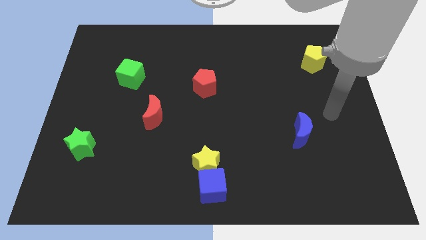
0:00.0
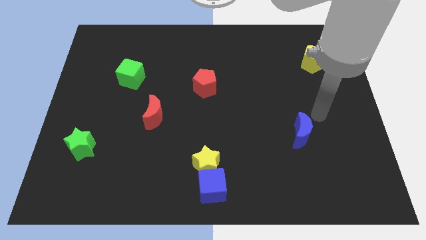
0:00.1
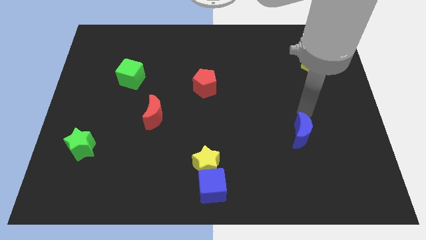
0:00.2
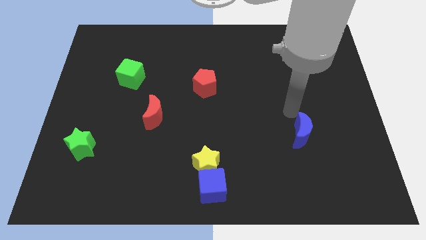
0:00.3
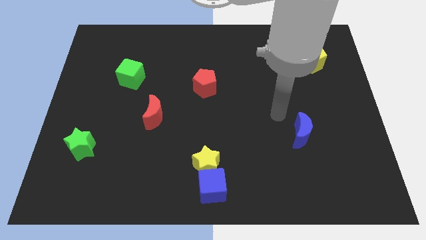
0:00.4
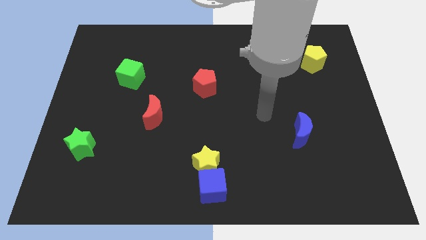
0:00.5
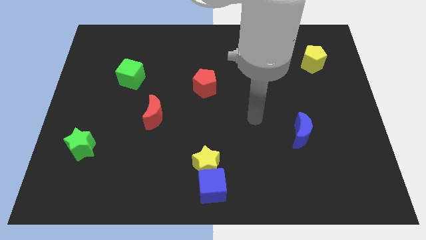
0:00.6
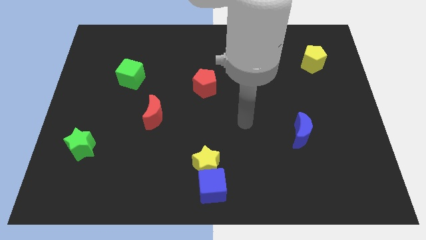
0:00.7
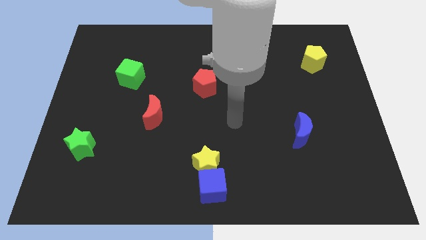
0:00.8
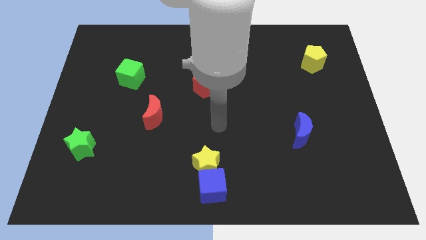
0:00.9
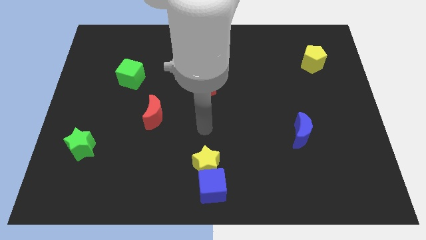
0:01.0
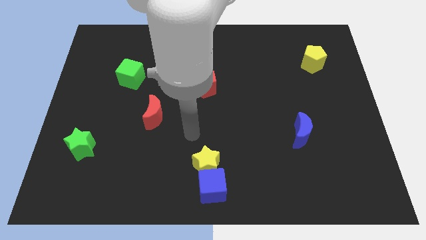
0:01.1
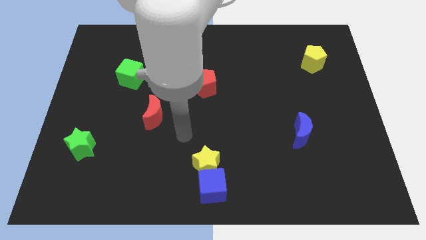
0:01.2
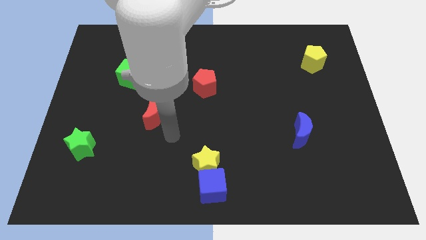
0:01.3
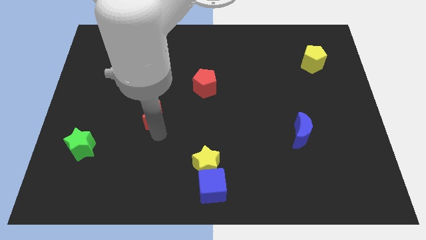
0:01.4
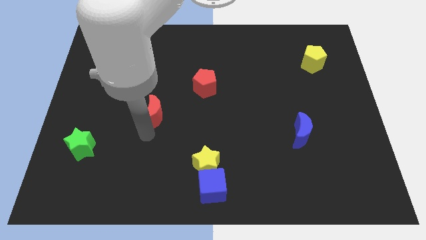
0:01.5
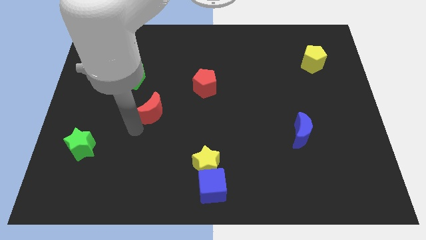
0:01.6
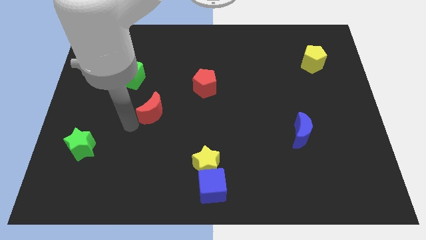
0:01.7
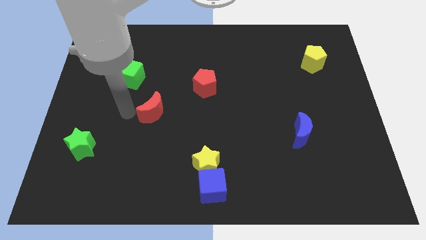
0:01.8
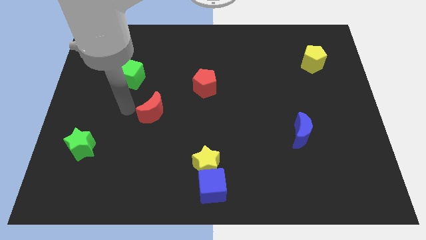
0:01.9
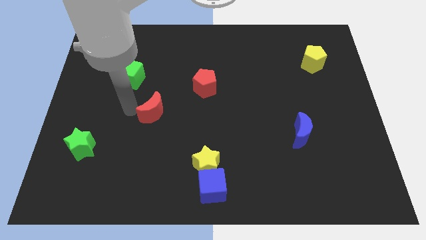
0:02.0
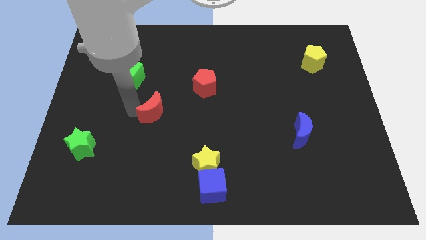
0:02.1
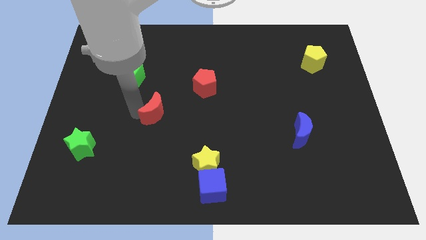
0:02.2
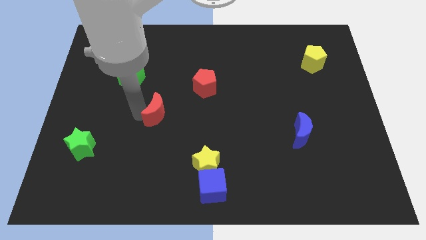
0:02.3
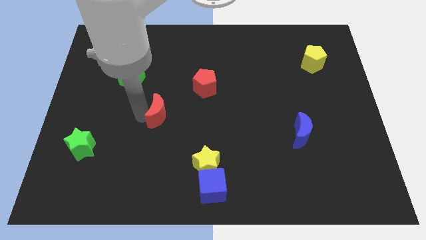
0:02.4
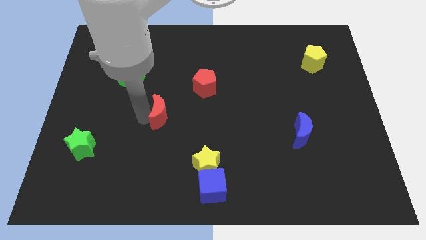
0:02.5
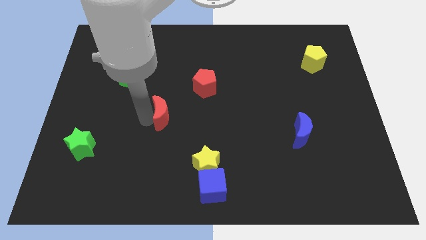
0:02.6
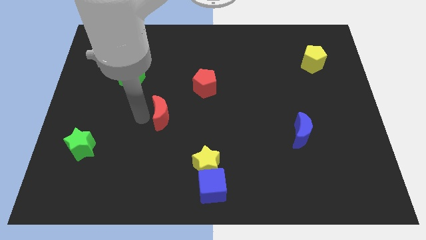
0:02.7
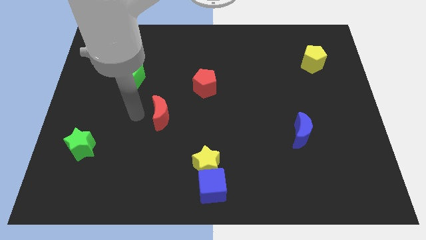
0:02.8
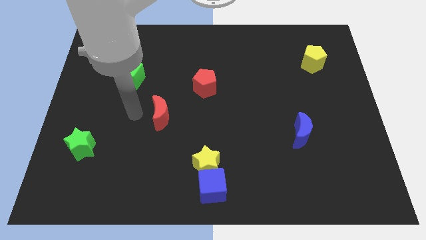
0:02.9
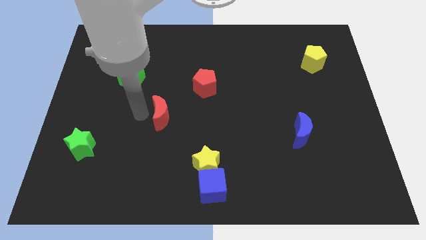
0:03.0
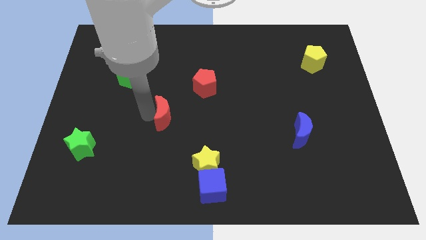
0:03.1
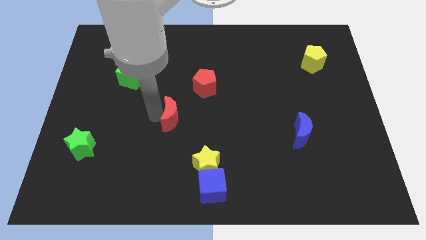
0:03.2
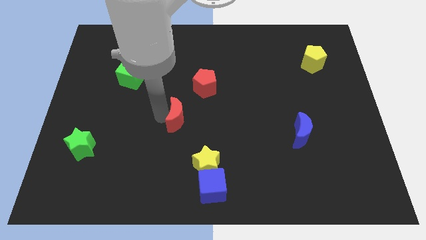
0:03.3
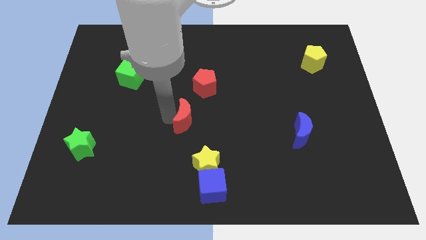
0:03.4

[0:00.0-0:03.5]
slide the red moon a bit to the right

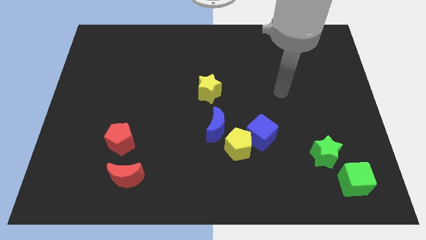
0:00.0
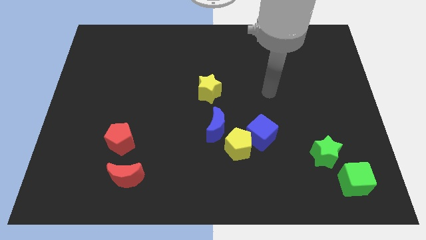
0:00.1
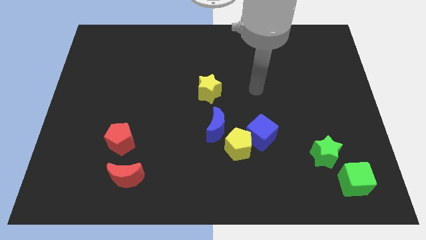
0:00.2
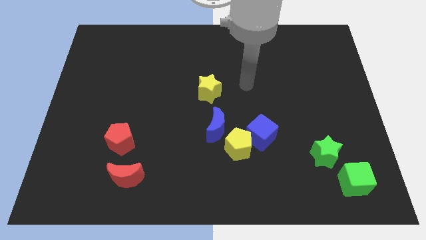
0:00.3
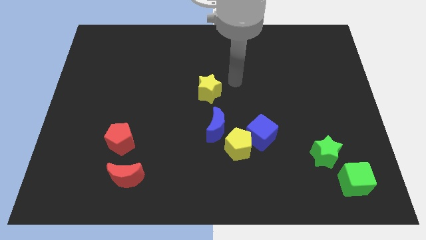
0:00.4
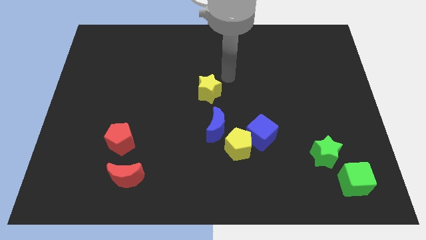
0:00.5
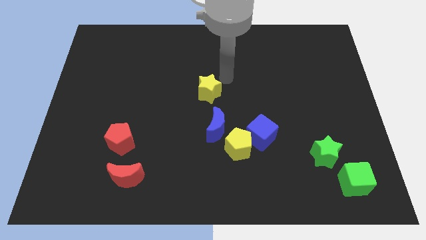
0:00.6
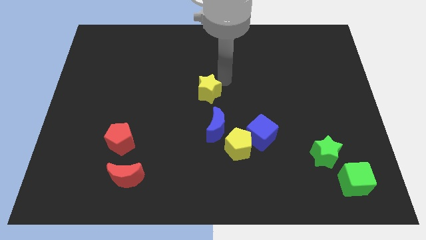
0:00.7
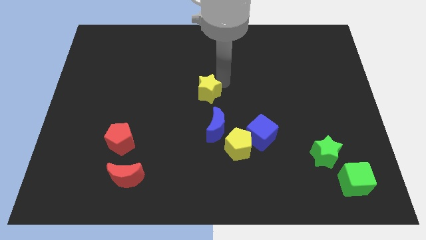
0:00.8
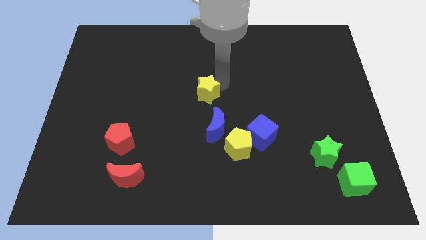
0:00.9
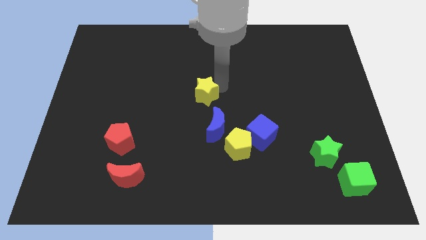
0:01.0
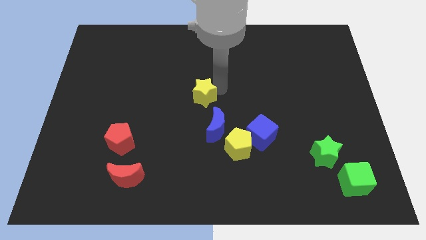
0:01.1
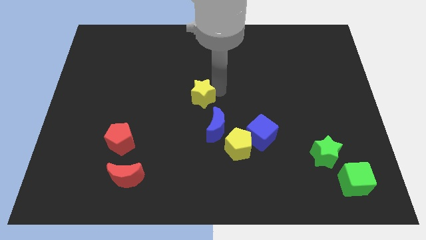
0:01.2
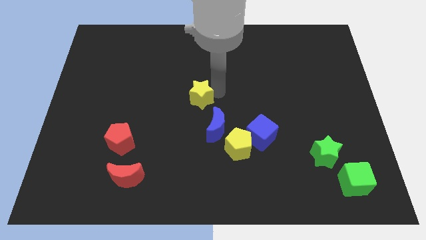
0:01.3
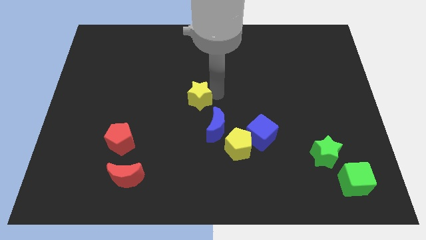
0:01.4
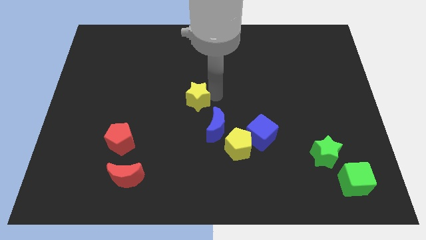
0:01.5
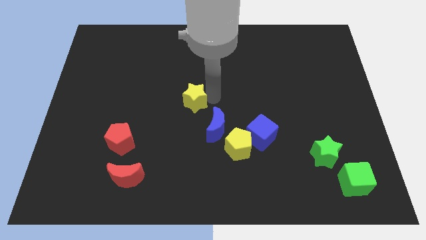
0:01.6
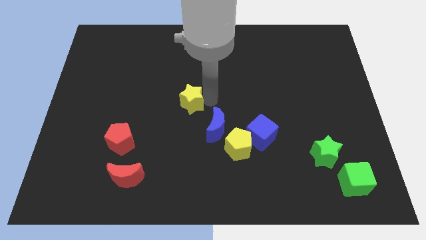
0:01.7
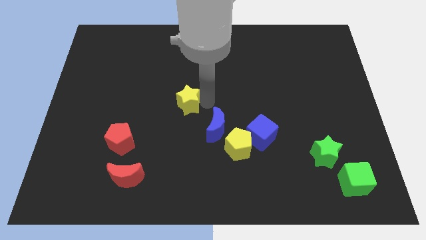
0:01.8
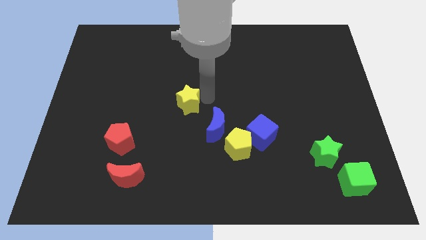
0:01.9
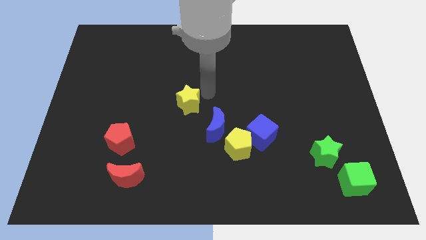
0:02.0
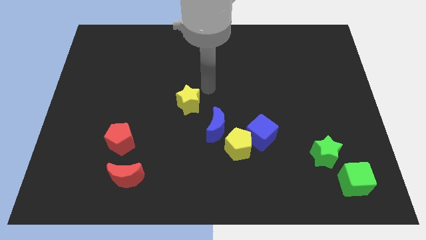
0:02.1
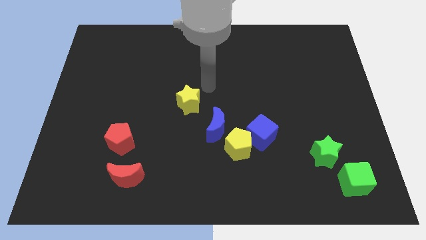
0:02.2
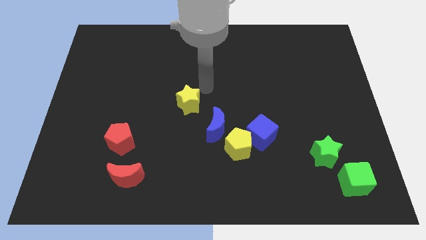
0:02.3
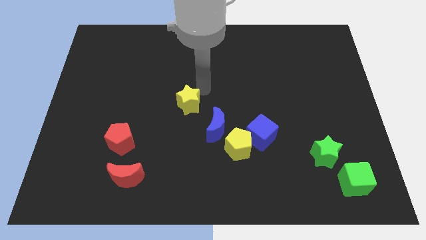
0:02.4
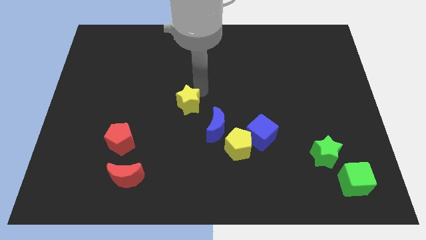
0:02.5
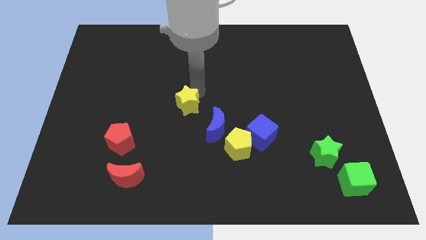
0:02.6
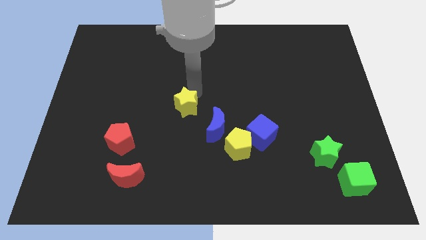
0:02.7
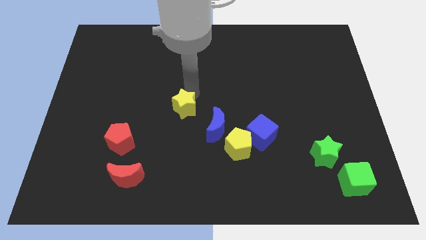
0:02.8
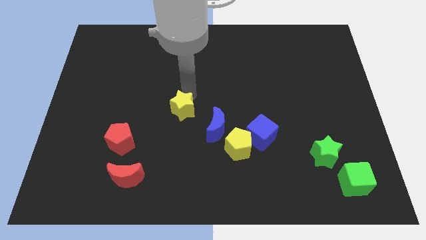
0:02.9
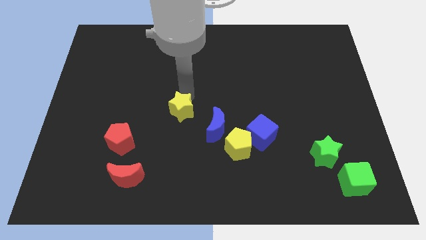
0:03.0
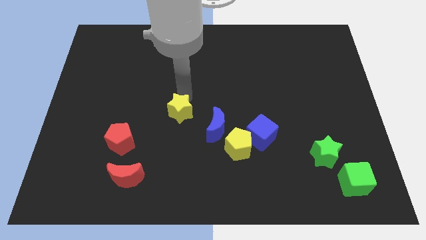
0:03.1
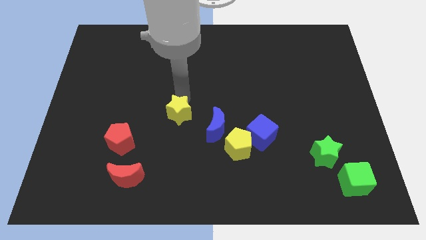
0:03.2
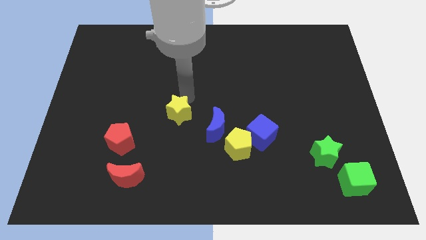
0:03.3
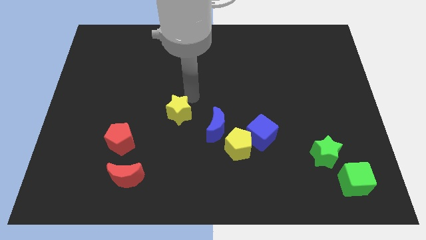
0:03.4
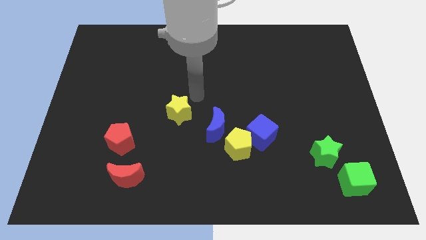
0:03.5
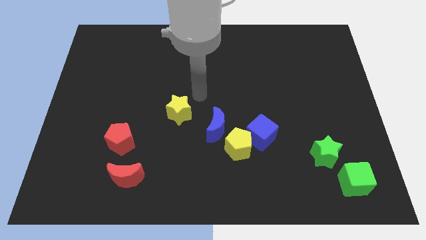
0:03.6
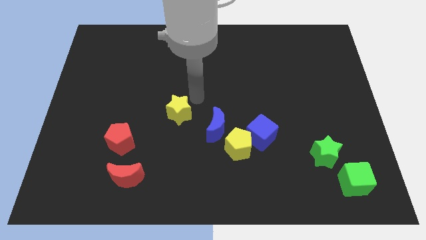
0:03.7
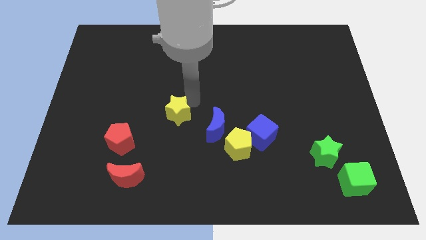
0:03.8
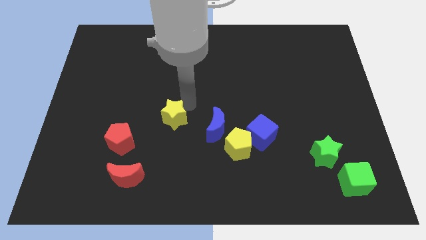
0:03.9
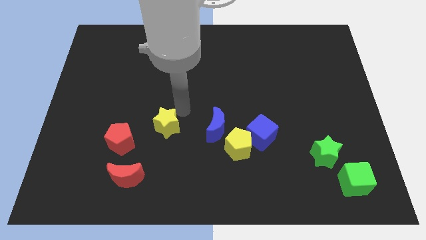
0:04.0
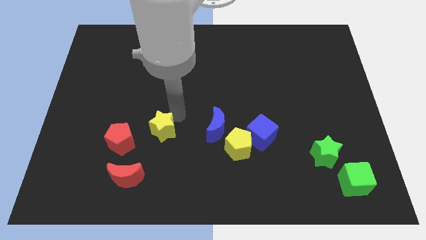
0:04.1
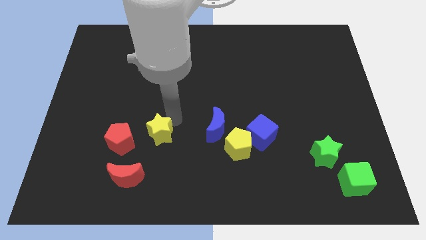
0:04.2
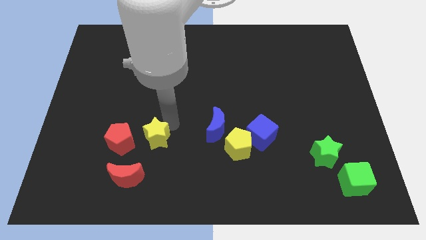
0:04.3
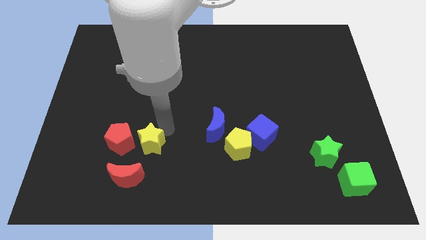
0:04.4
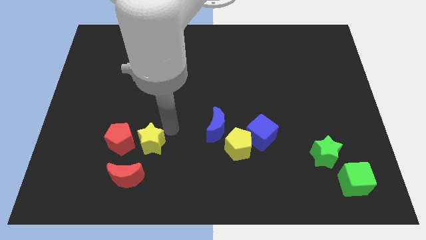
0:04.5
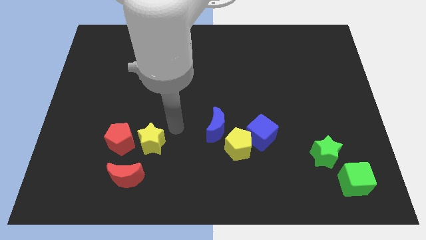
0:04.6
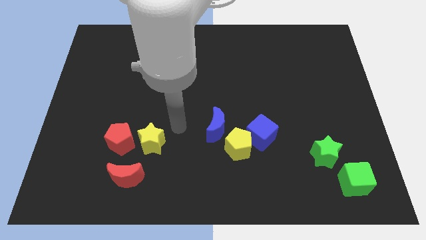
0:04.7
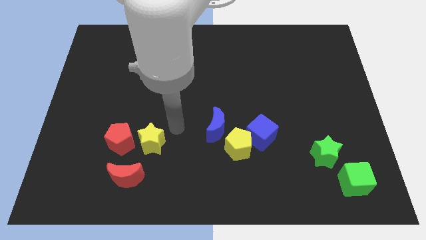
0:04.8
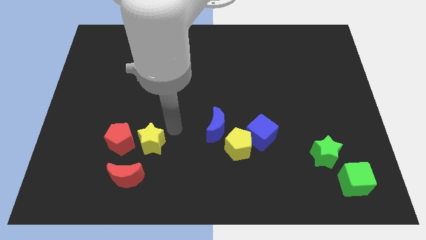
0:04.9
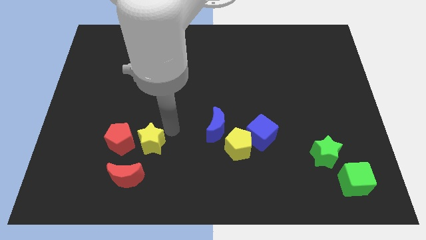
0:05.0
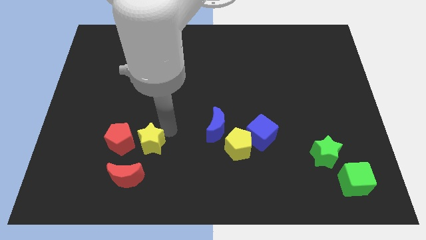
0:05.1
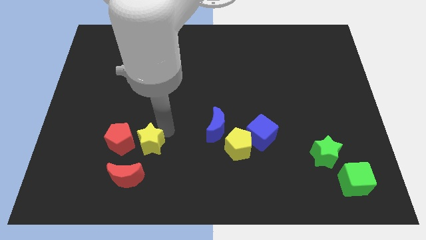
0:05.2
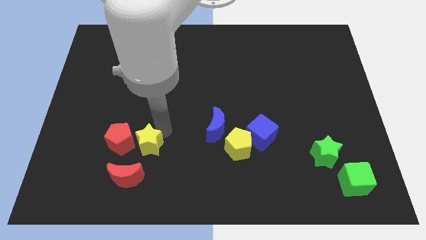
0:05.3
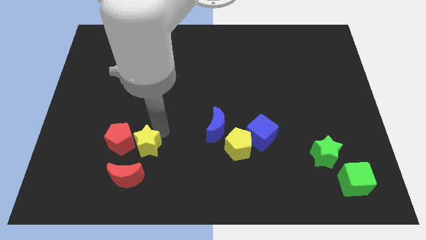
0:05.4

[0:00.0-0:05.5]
move the yellow star downwards and then to the left
